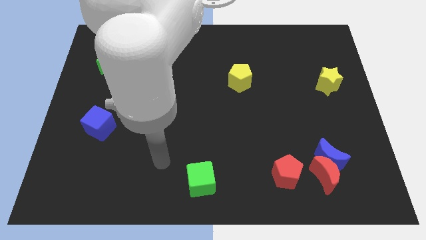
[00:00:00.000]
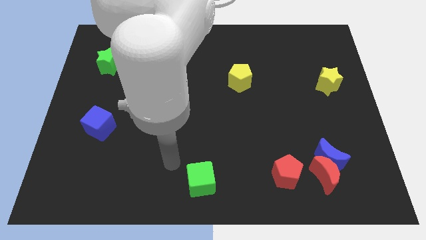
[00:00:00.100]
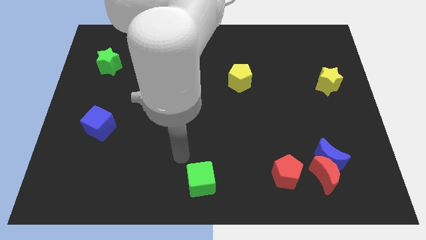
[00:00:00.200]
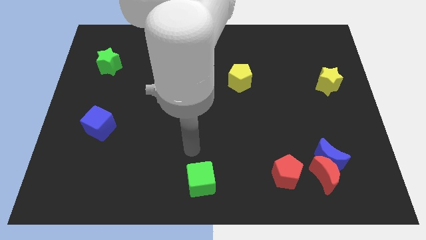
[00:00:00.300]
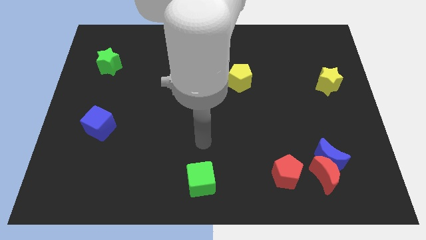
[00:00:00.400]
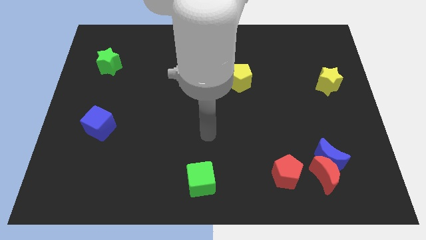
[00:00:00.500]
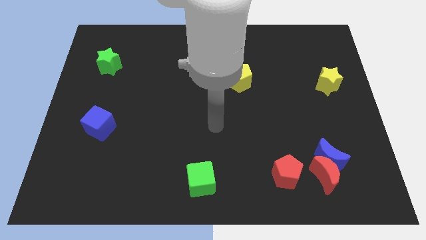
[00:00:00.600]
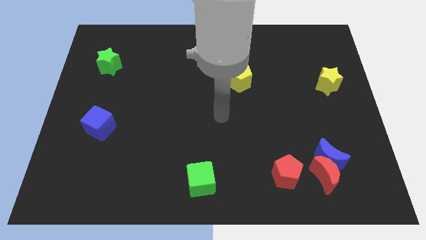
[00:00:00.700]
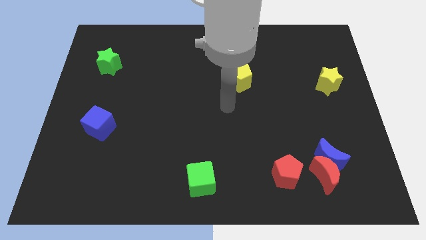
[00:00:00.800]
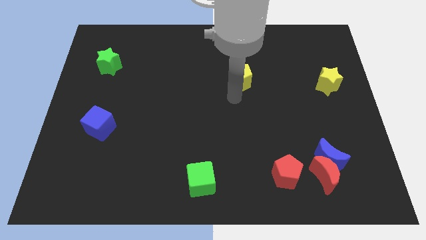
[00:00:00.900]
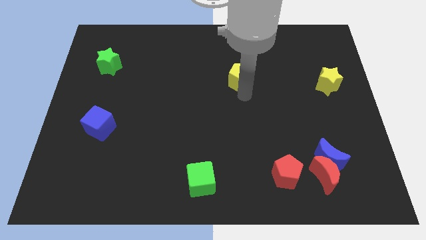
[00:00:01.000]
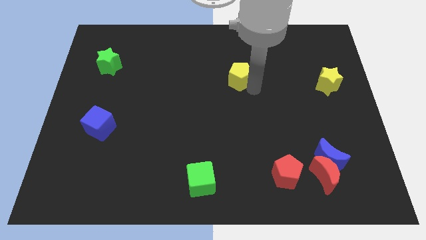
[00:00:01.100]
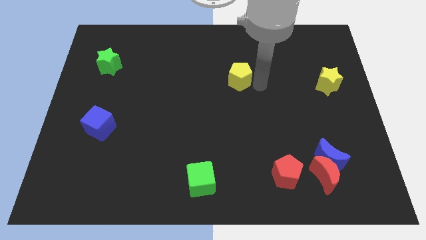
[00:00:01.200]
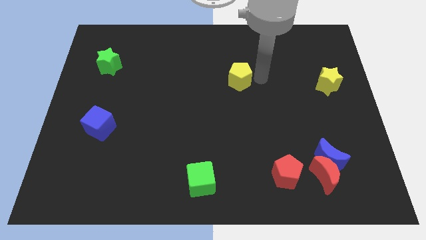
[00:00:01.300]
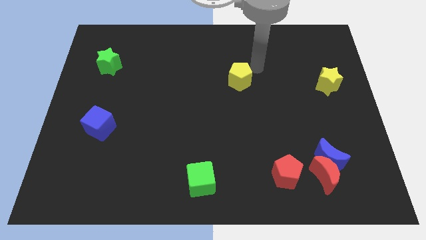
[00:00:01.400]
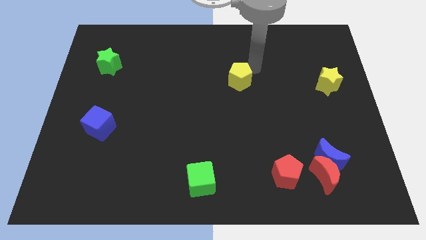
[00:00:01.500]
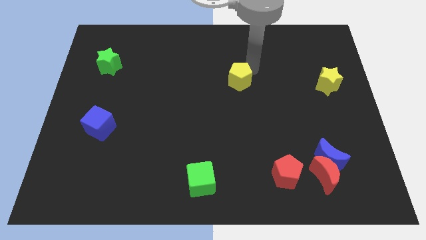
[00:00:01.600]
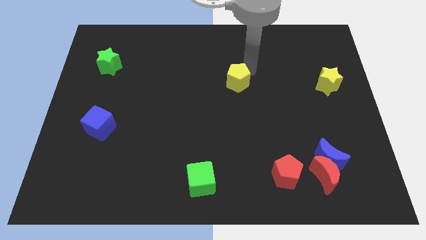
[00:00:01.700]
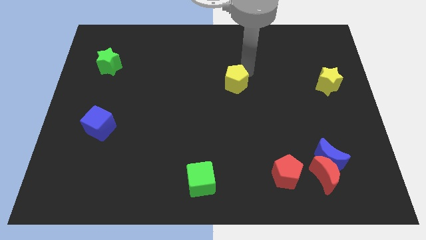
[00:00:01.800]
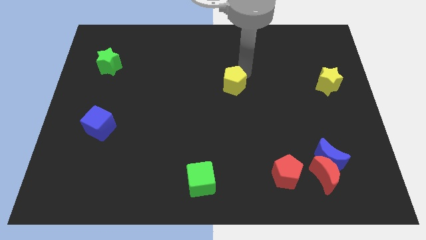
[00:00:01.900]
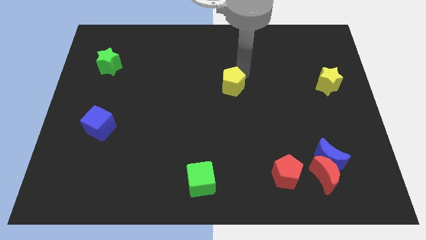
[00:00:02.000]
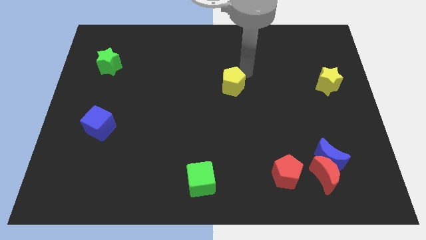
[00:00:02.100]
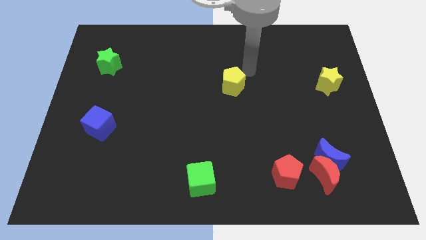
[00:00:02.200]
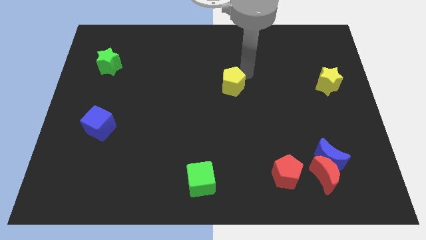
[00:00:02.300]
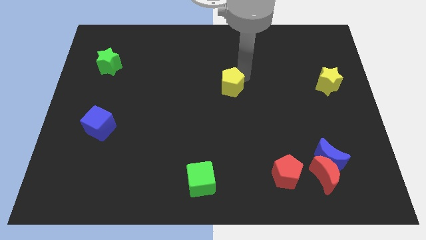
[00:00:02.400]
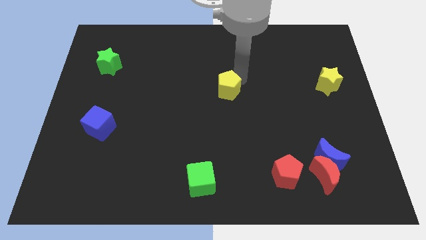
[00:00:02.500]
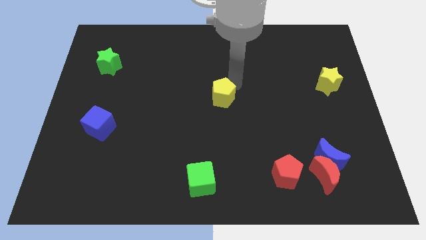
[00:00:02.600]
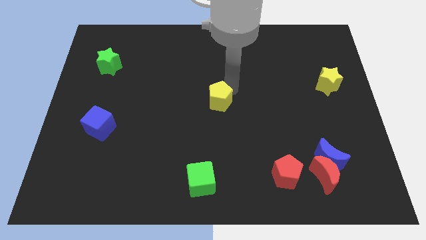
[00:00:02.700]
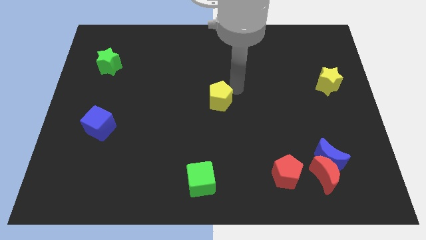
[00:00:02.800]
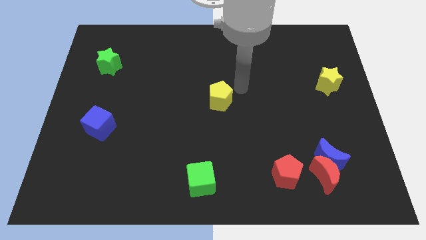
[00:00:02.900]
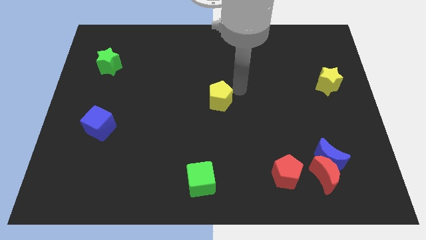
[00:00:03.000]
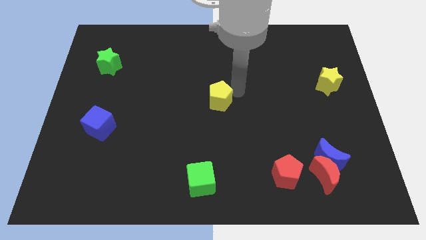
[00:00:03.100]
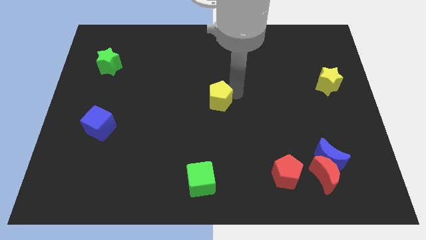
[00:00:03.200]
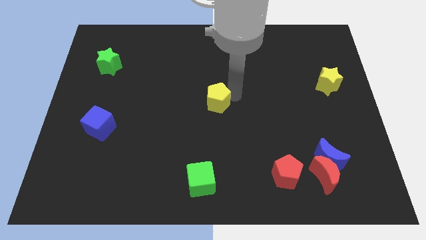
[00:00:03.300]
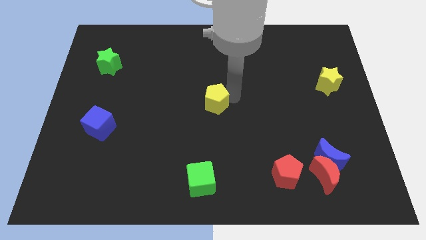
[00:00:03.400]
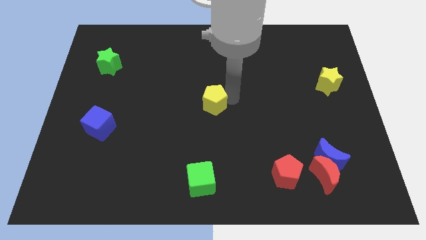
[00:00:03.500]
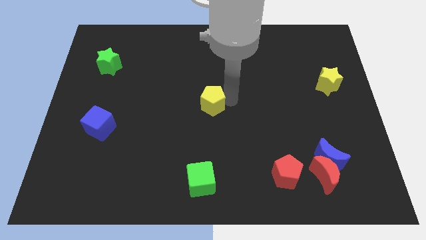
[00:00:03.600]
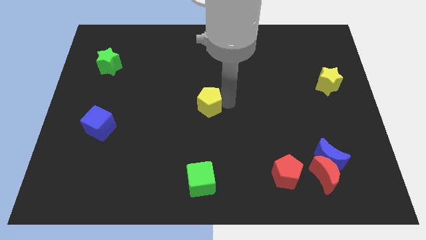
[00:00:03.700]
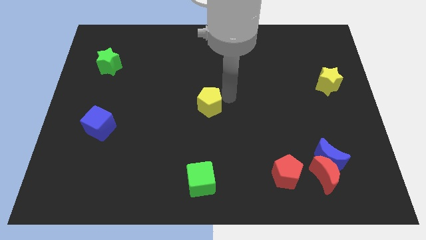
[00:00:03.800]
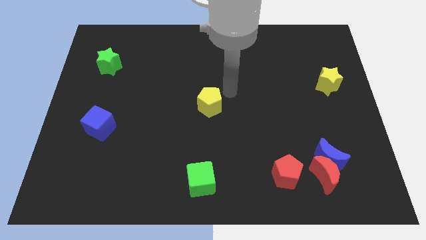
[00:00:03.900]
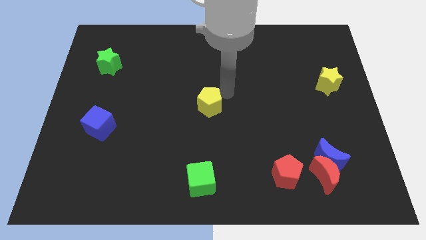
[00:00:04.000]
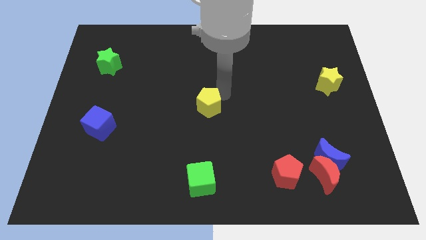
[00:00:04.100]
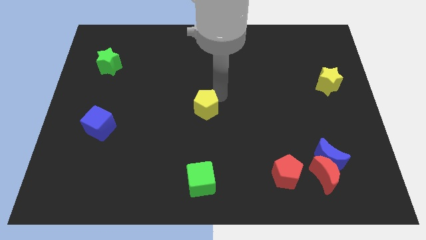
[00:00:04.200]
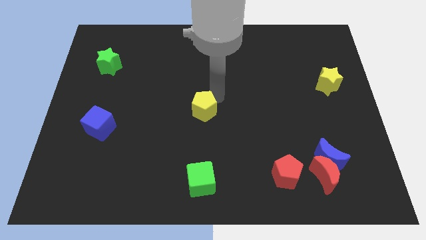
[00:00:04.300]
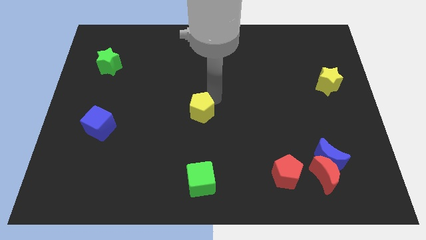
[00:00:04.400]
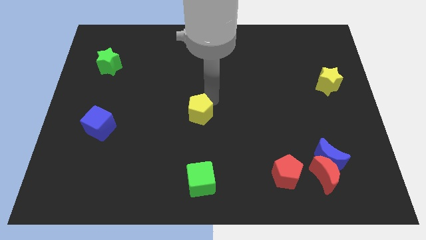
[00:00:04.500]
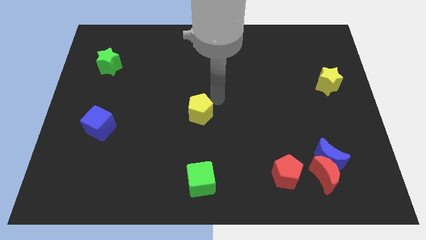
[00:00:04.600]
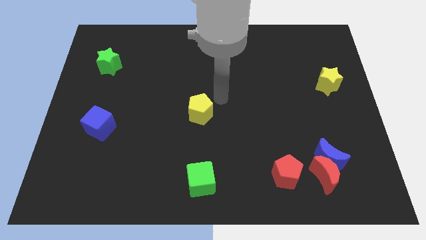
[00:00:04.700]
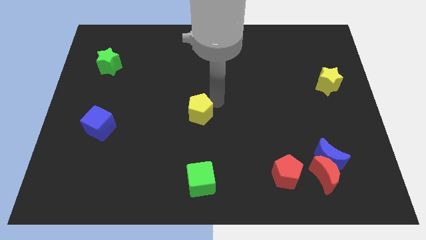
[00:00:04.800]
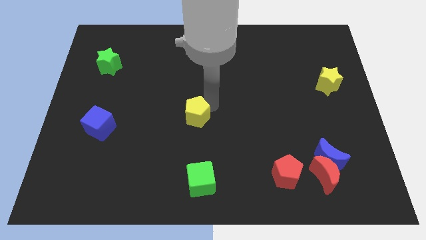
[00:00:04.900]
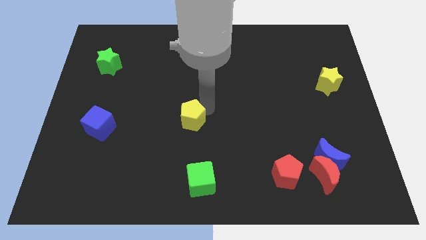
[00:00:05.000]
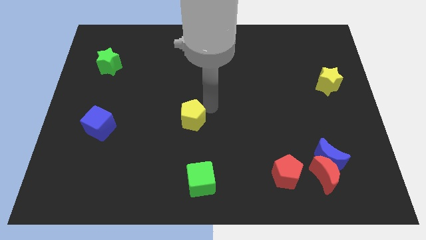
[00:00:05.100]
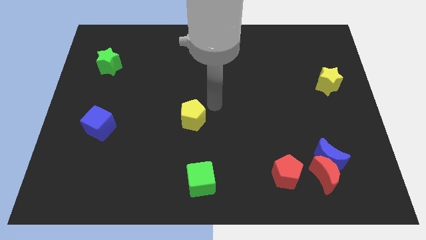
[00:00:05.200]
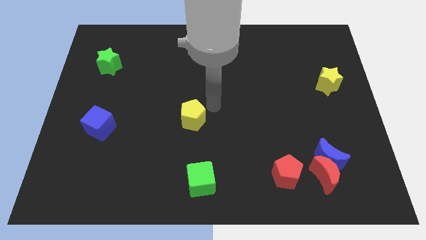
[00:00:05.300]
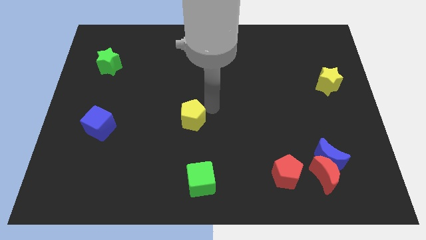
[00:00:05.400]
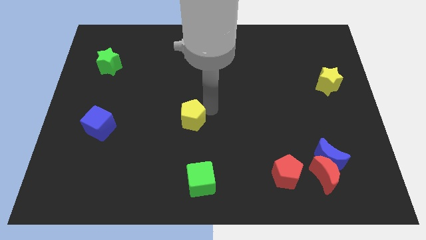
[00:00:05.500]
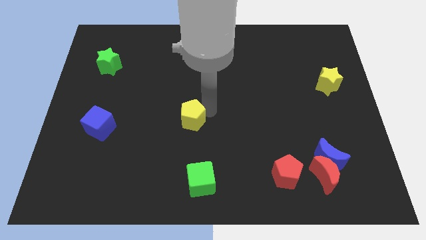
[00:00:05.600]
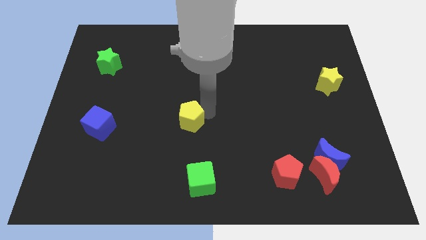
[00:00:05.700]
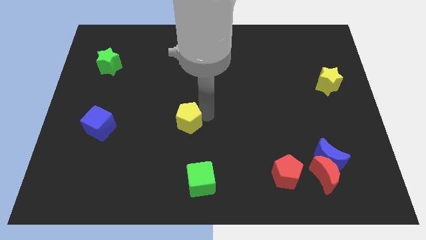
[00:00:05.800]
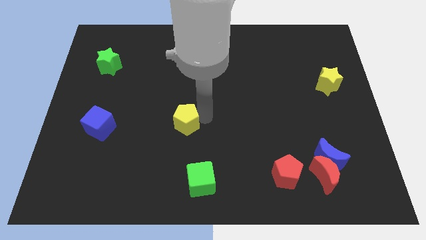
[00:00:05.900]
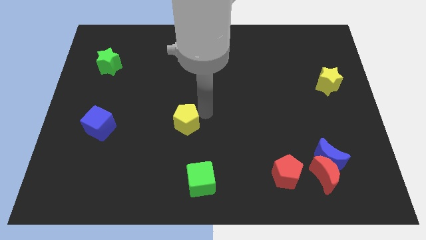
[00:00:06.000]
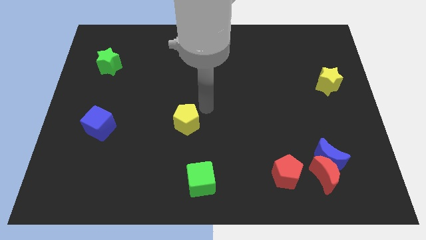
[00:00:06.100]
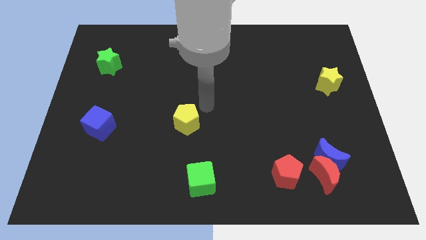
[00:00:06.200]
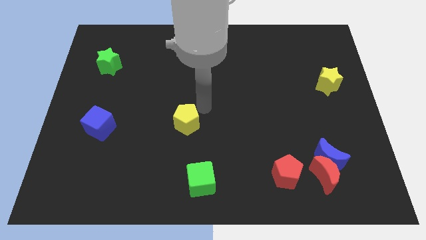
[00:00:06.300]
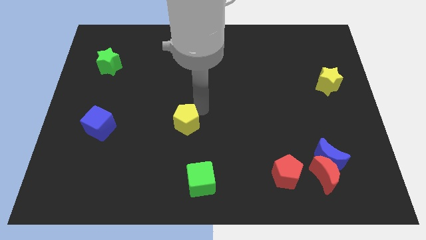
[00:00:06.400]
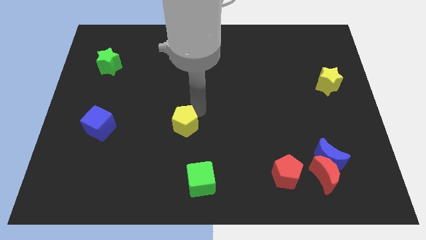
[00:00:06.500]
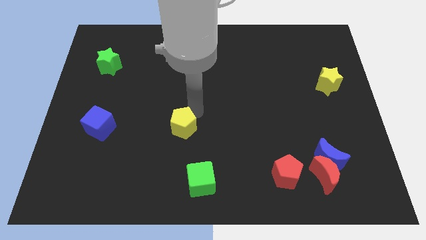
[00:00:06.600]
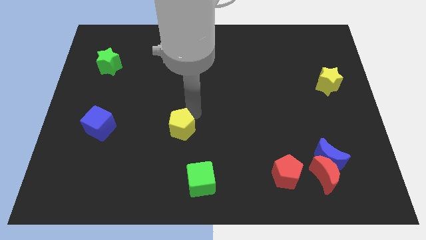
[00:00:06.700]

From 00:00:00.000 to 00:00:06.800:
push the yellow pentagon downwards and to the left diagonally

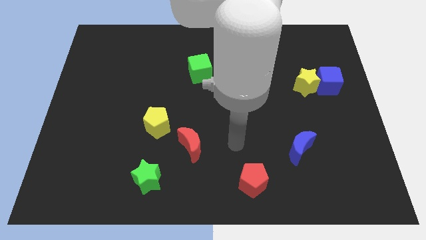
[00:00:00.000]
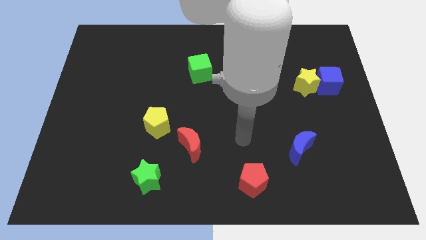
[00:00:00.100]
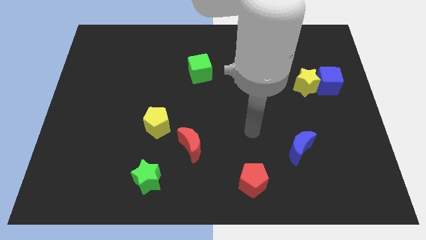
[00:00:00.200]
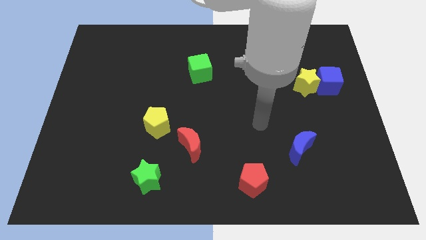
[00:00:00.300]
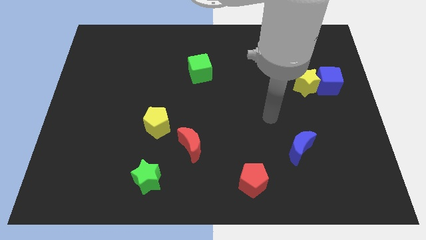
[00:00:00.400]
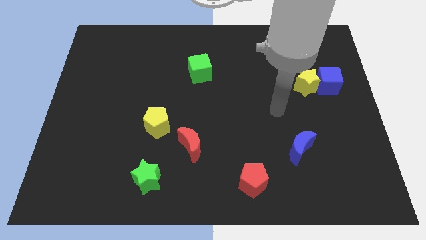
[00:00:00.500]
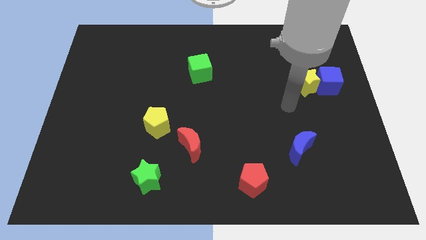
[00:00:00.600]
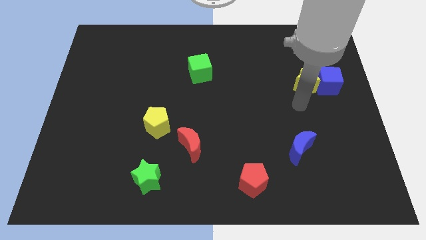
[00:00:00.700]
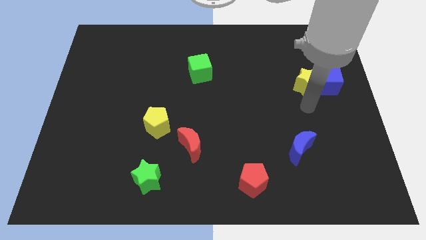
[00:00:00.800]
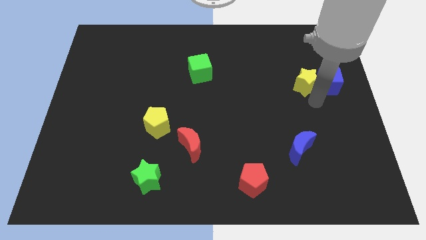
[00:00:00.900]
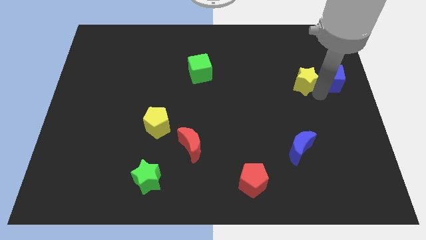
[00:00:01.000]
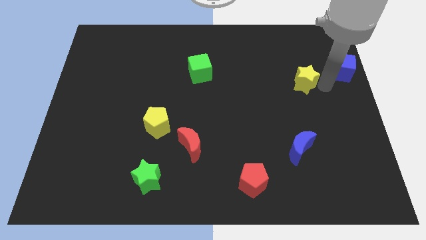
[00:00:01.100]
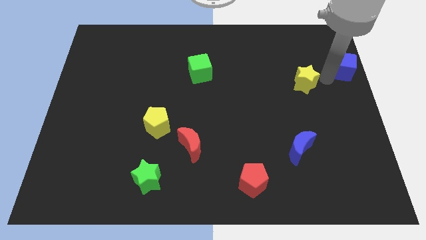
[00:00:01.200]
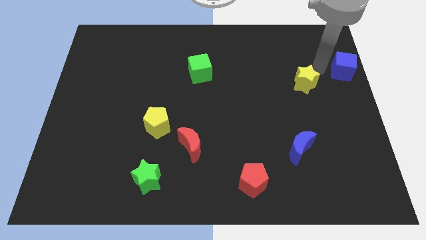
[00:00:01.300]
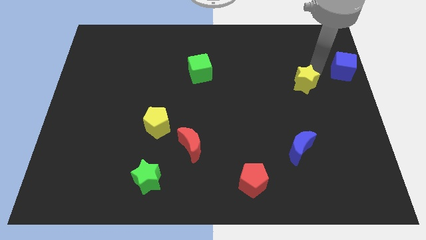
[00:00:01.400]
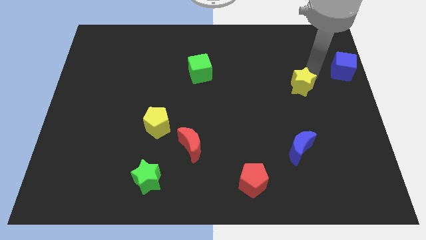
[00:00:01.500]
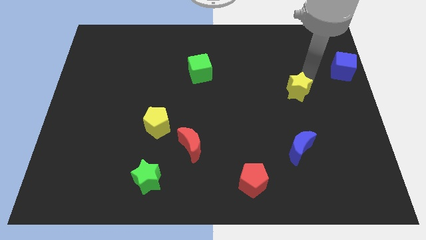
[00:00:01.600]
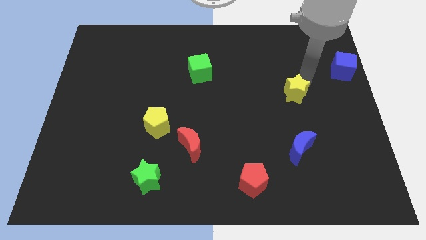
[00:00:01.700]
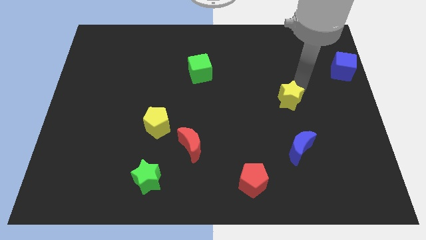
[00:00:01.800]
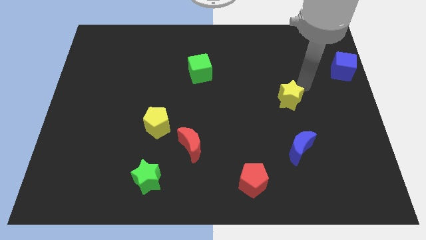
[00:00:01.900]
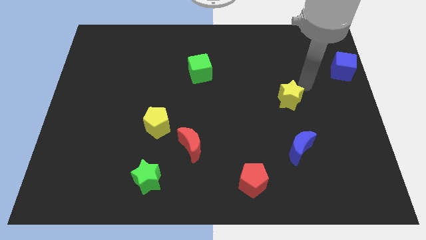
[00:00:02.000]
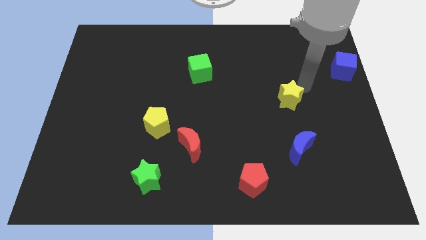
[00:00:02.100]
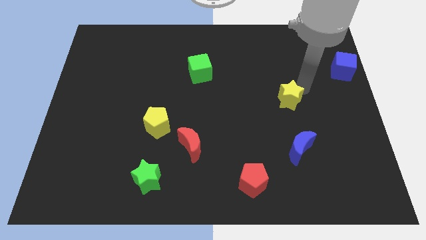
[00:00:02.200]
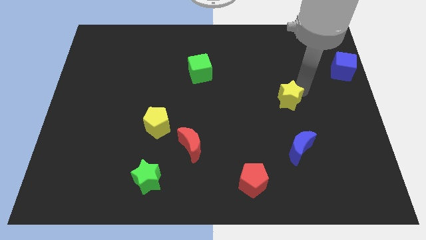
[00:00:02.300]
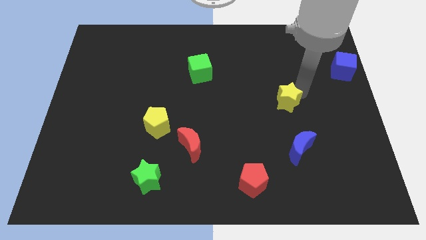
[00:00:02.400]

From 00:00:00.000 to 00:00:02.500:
move the yellow star a little bit down and then left
